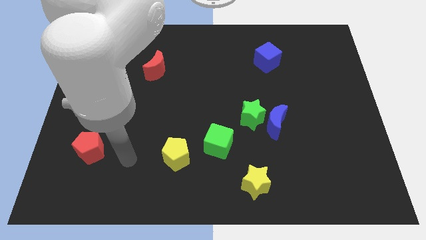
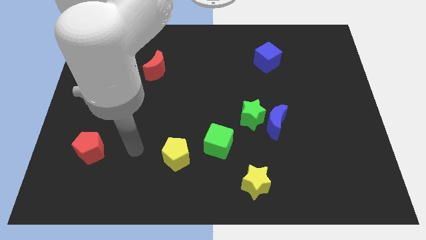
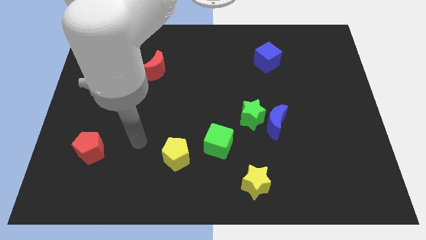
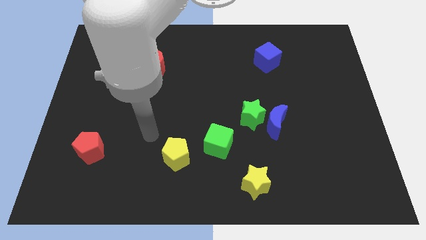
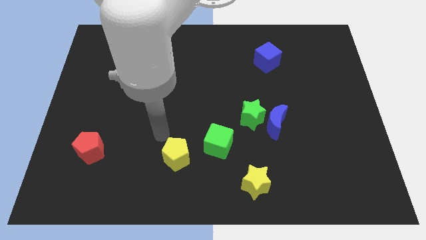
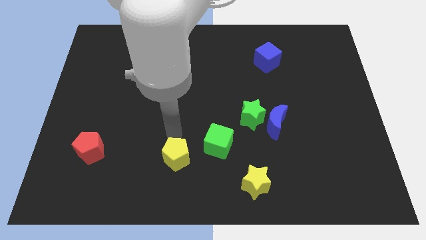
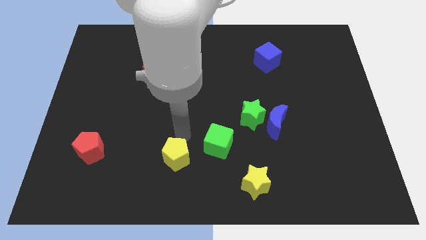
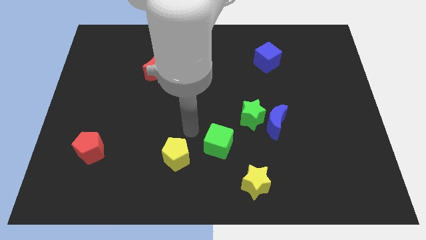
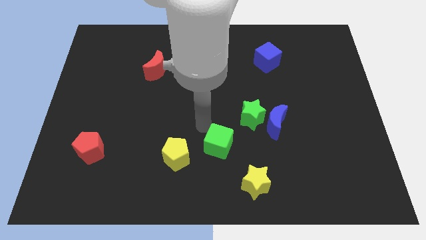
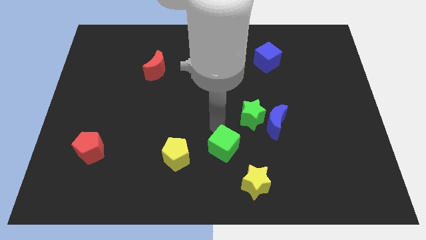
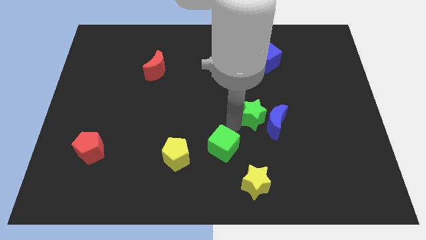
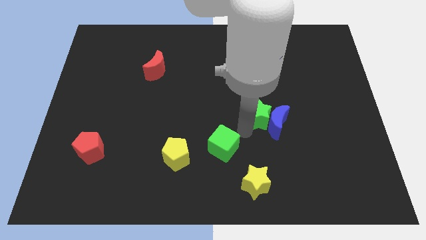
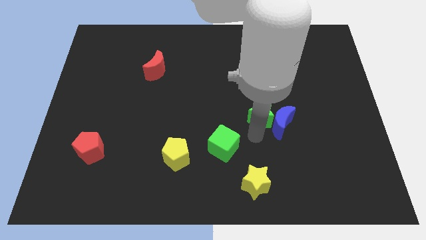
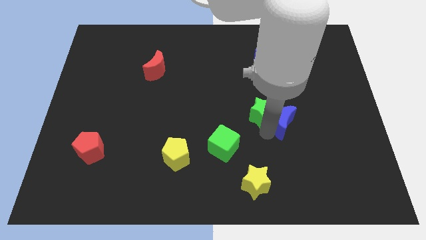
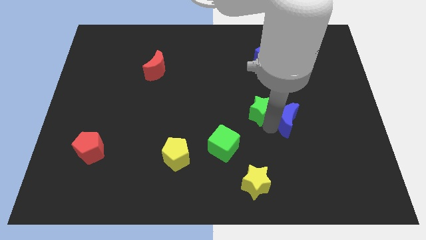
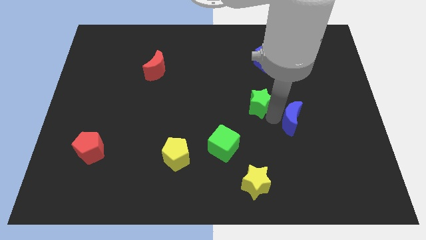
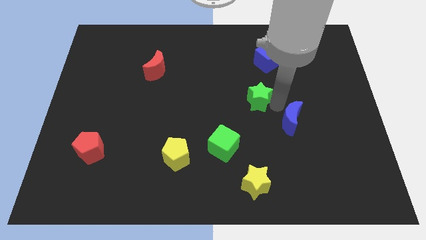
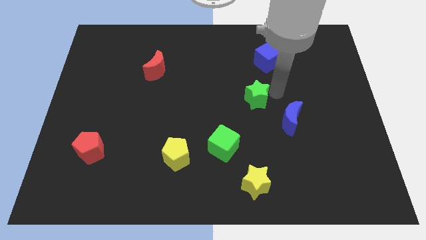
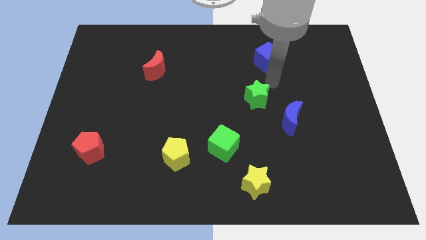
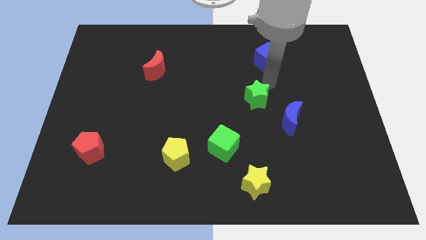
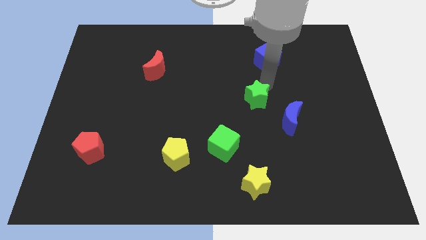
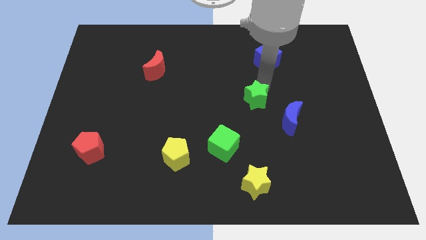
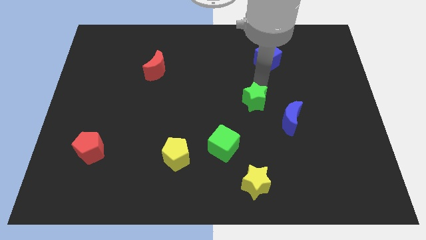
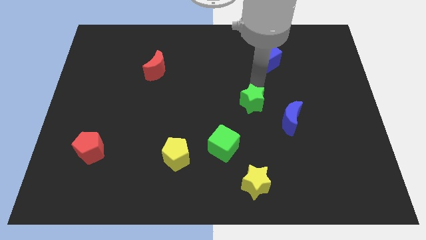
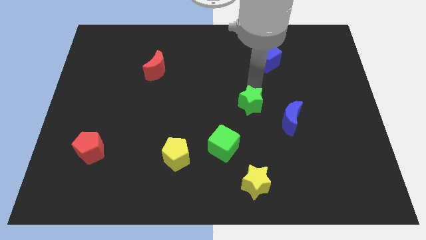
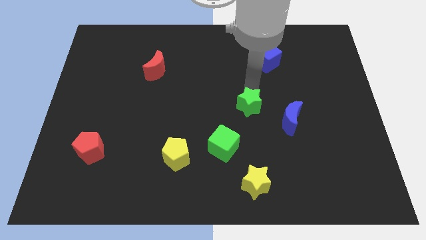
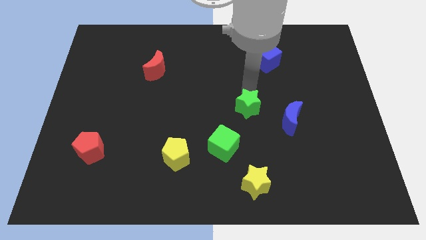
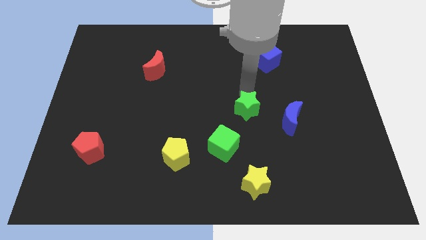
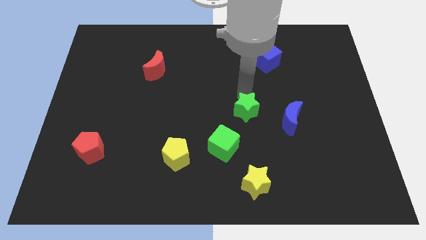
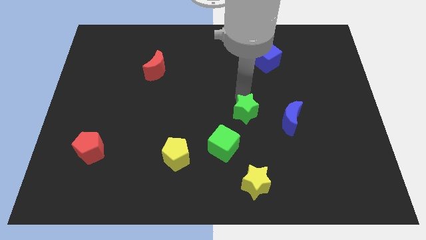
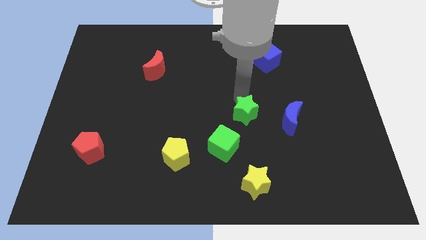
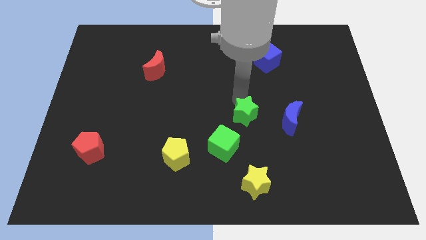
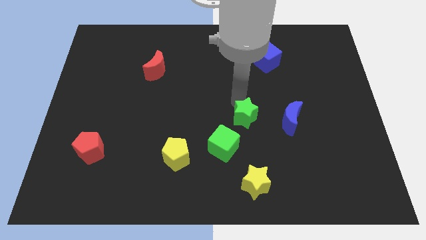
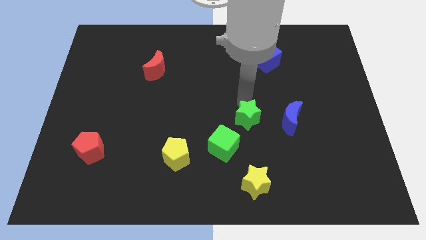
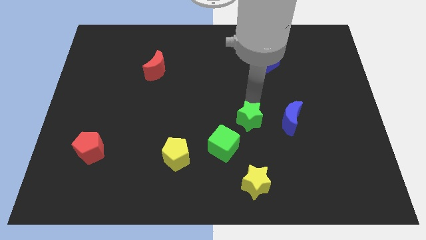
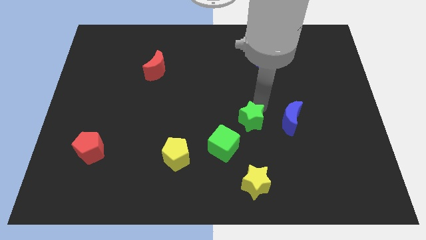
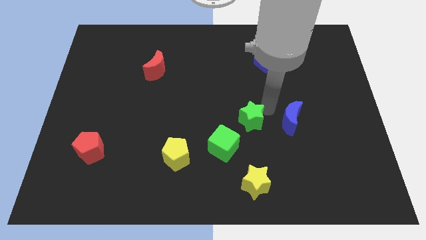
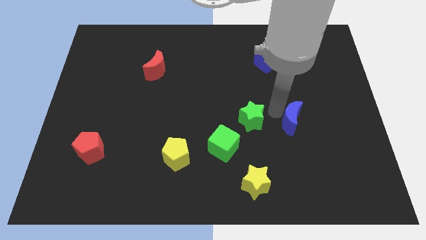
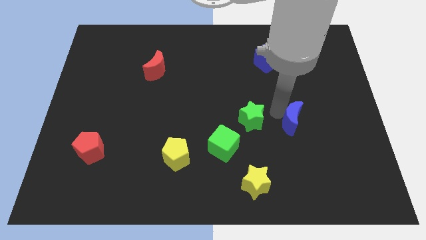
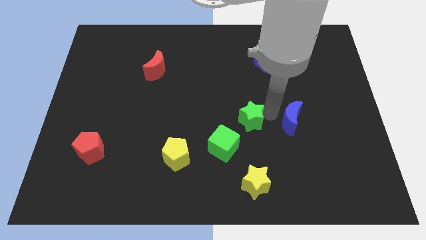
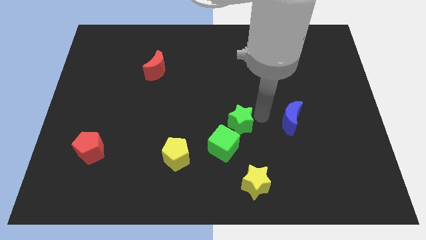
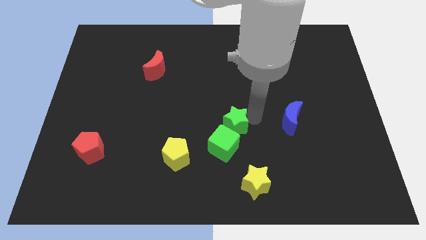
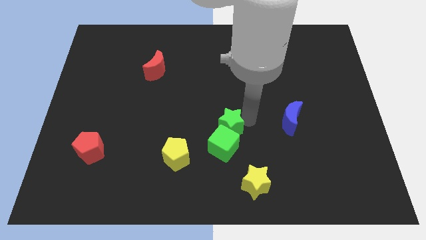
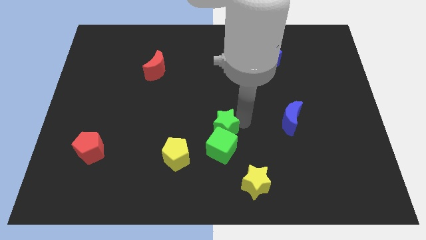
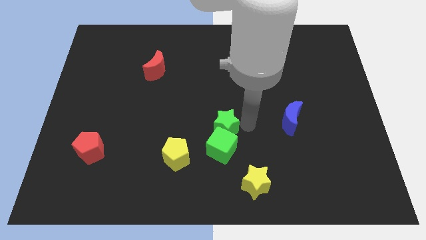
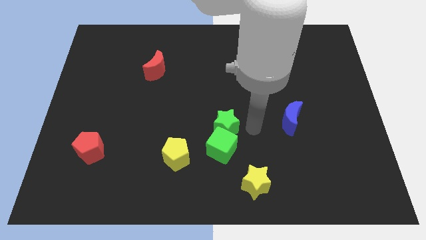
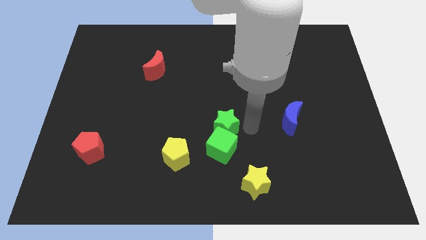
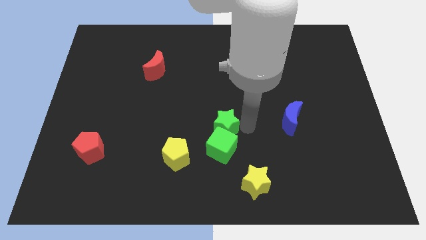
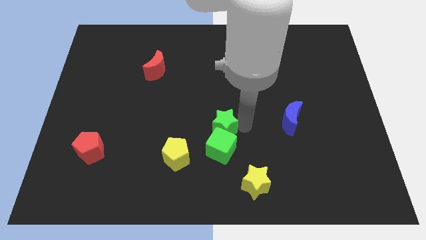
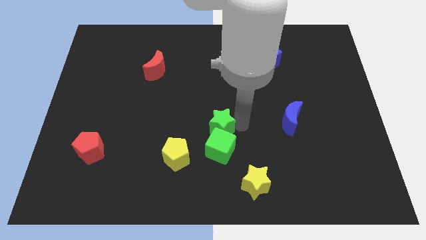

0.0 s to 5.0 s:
move the green star left somewhat

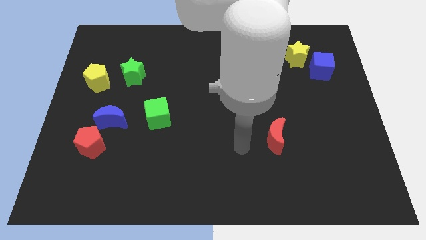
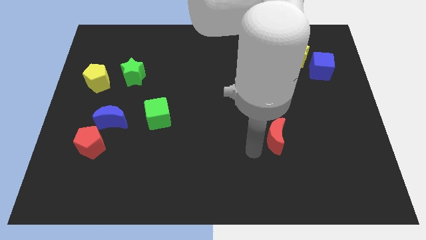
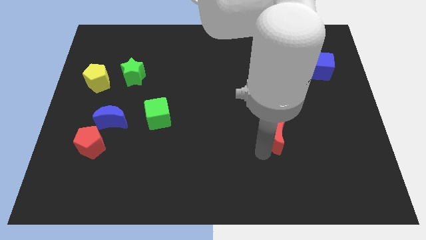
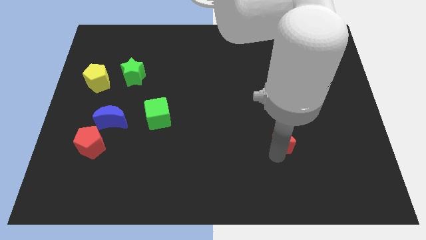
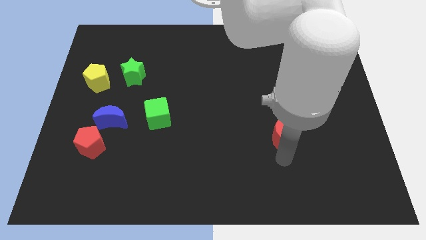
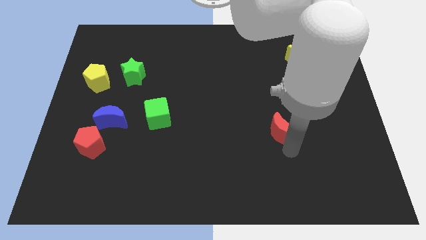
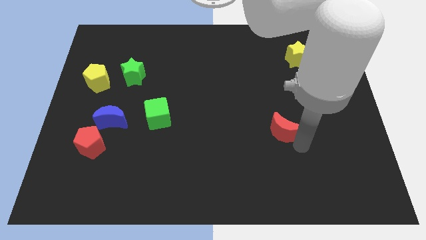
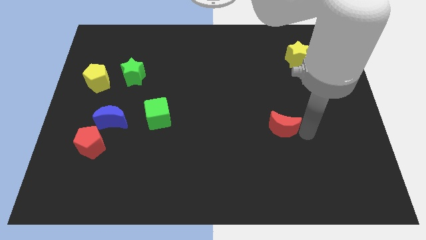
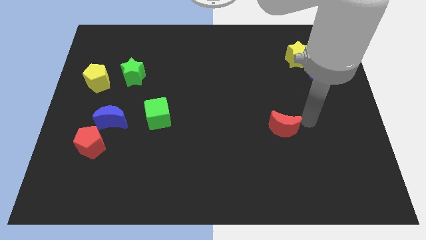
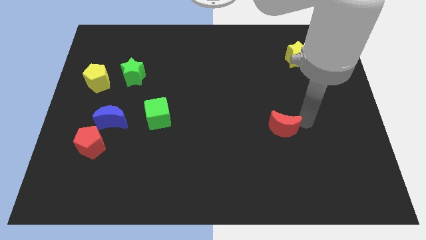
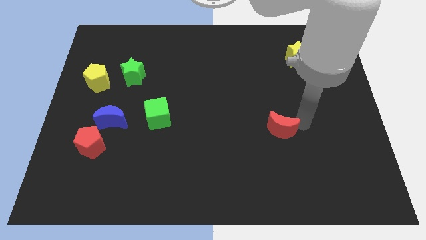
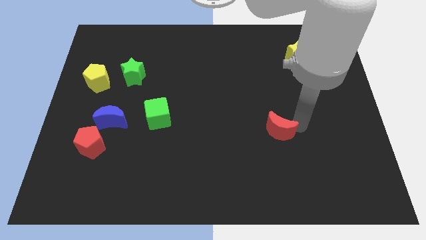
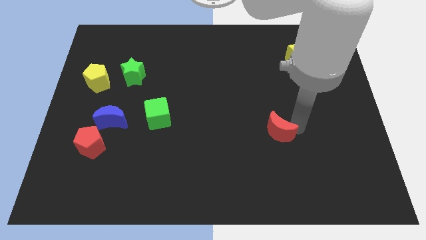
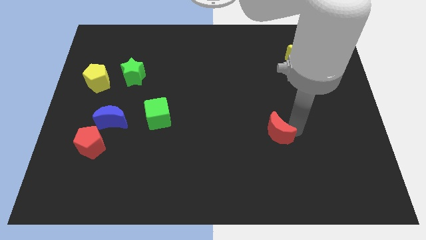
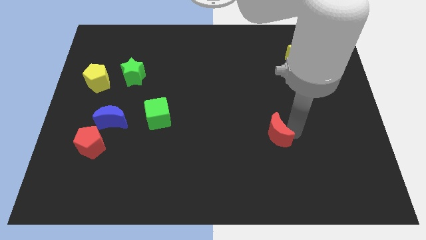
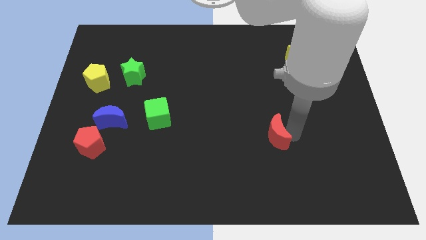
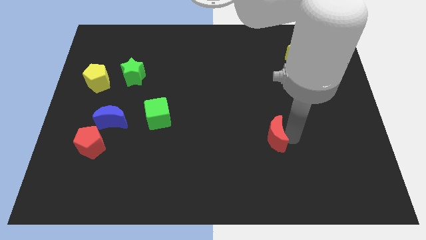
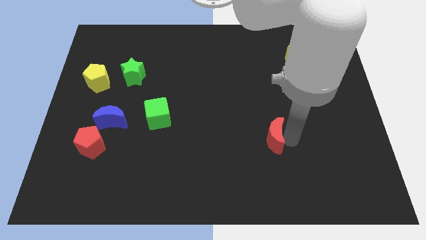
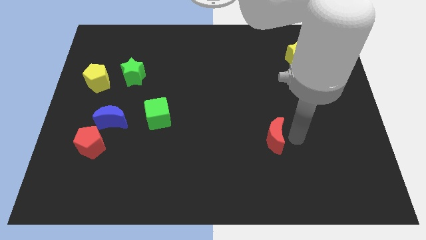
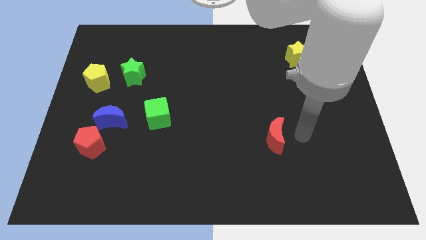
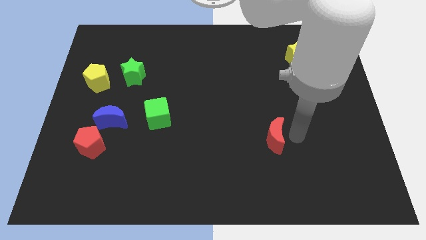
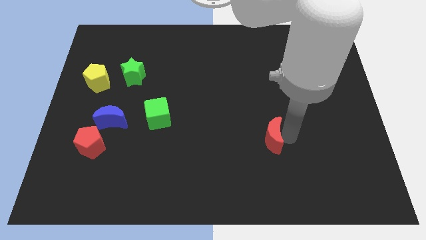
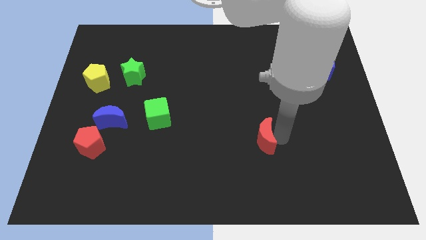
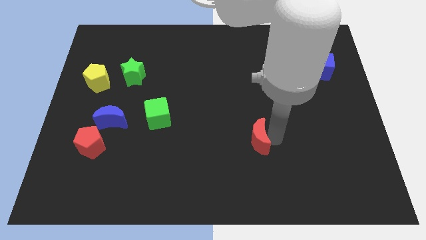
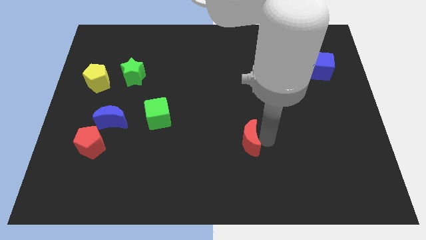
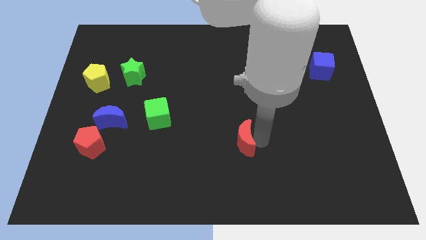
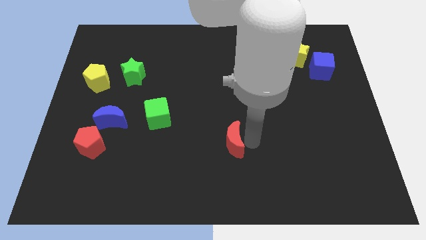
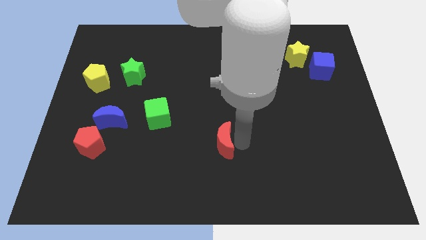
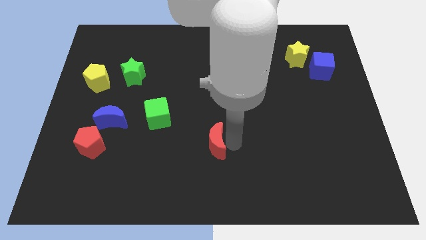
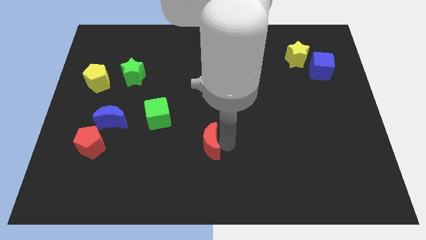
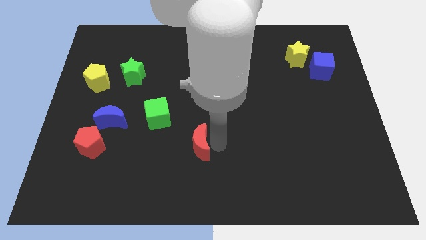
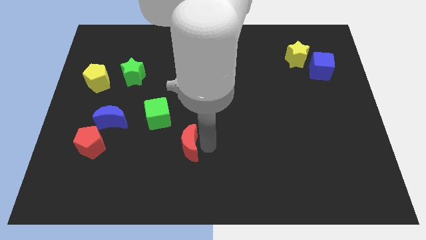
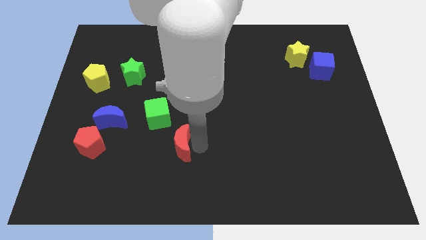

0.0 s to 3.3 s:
push the red moon left

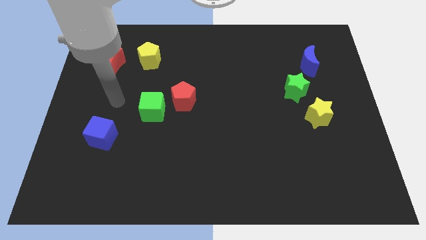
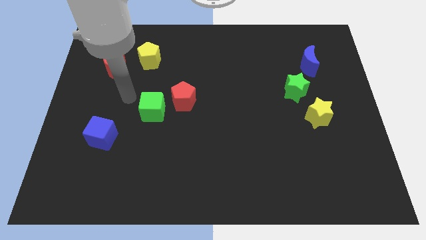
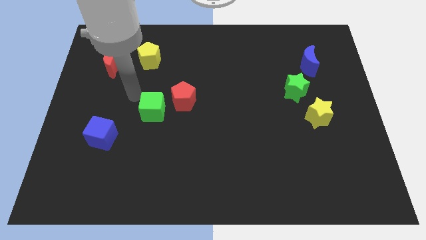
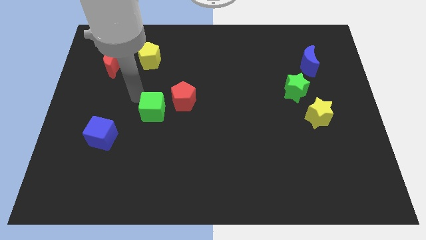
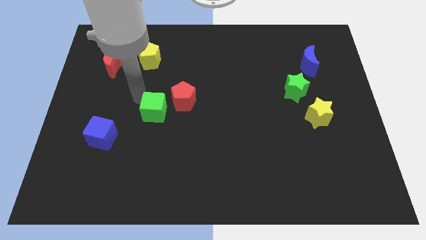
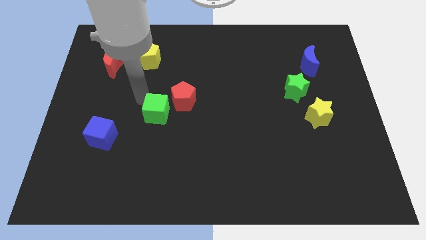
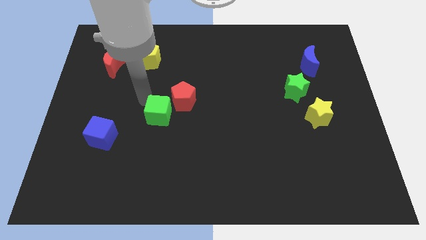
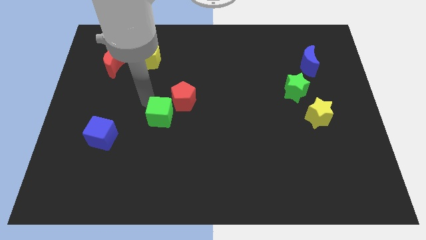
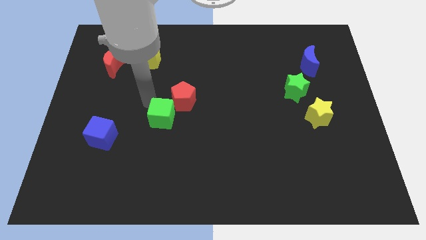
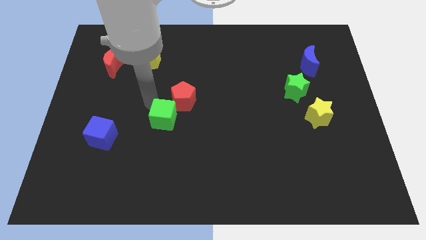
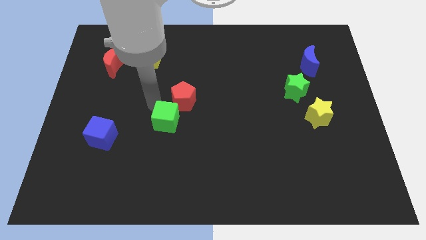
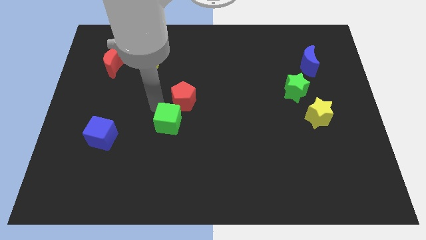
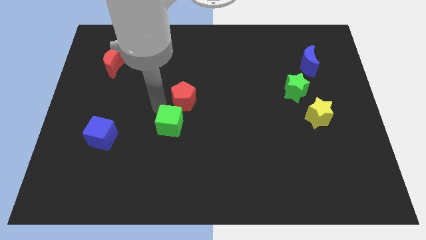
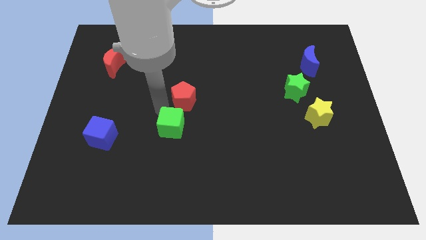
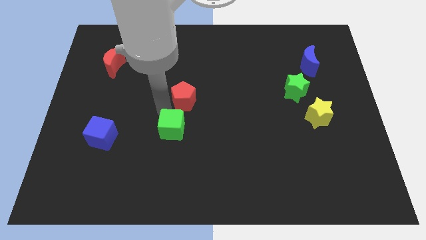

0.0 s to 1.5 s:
slightly slide the green cube diagonally downwards and right
